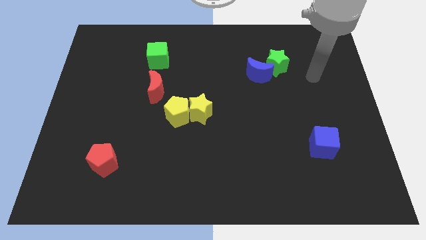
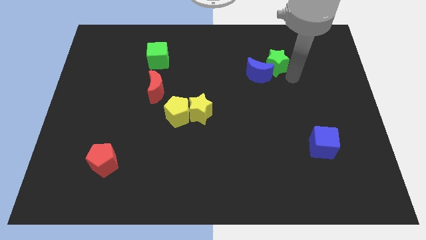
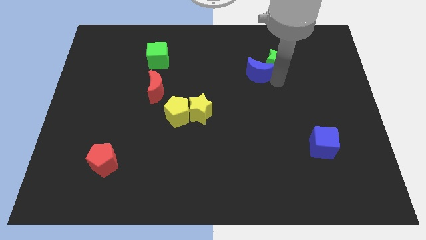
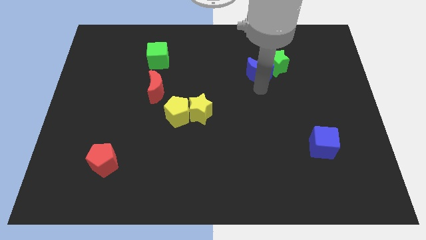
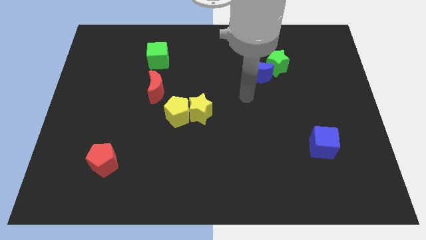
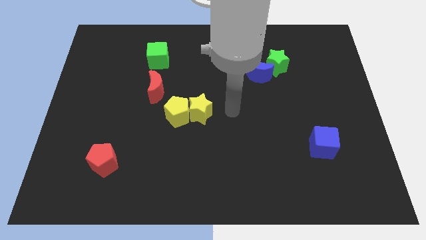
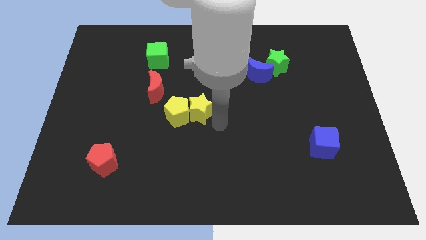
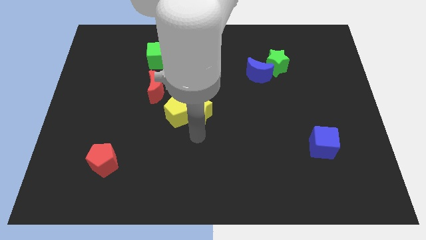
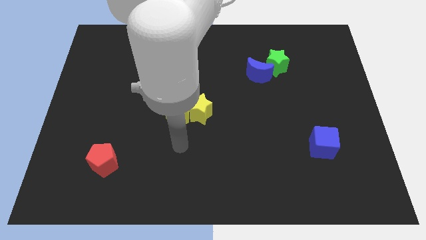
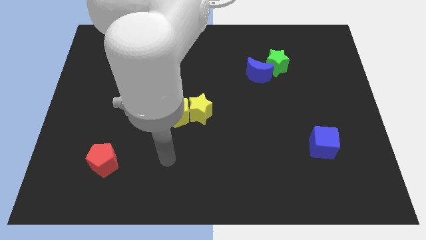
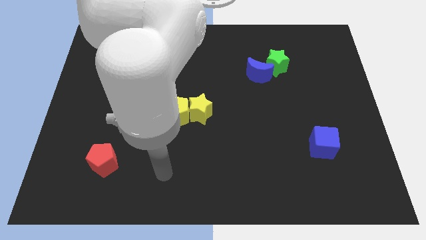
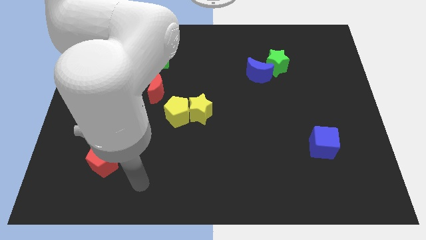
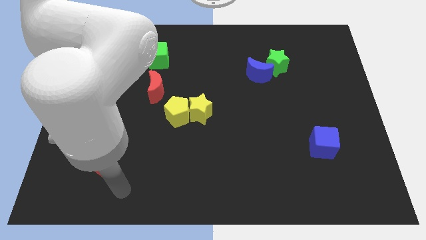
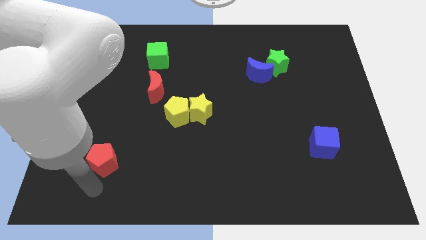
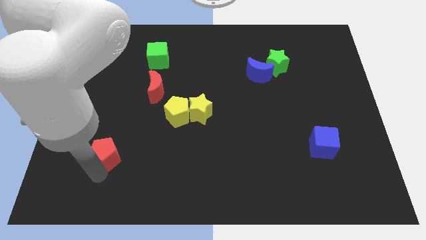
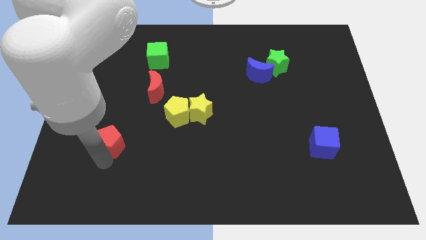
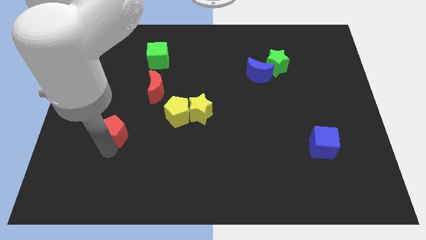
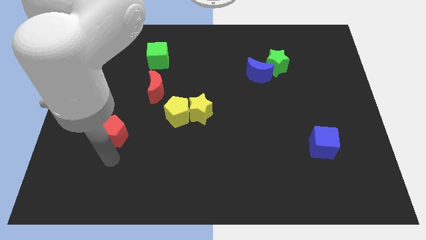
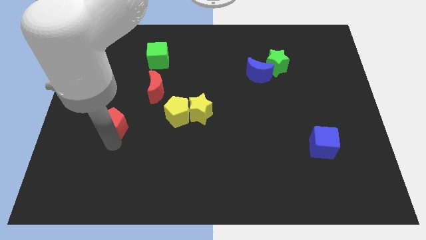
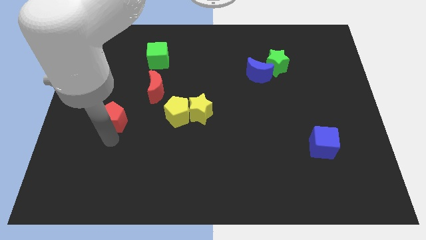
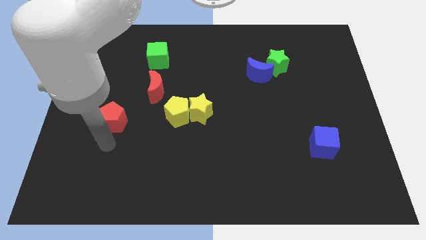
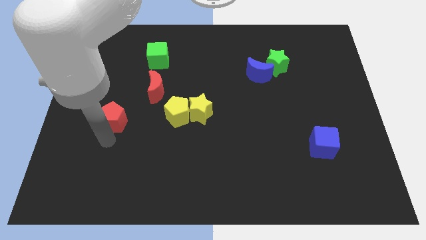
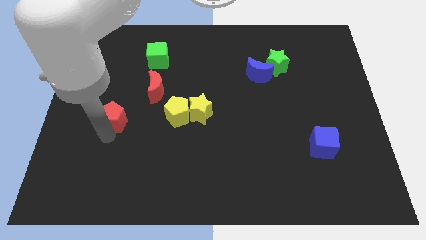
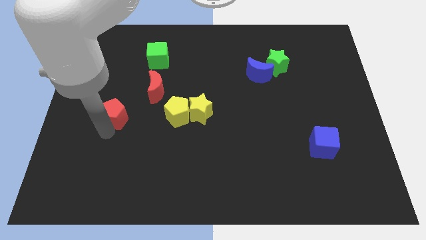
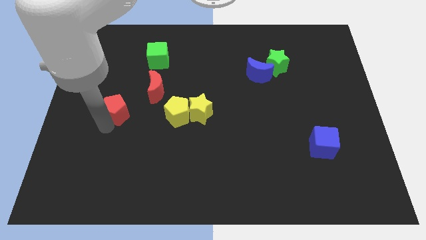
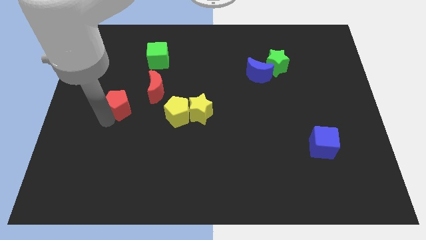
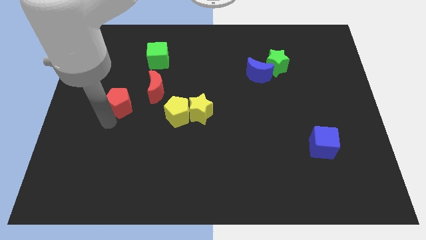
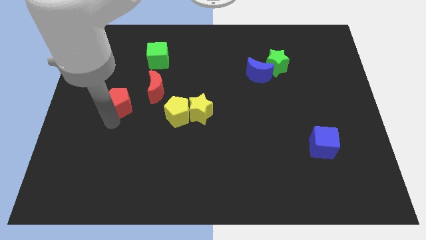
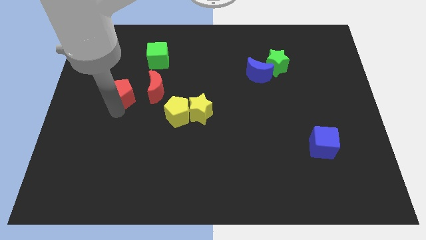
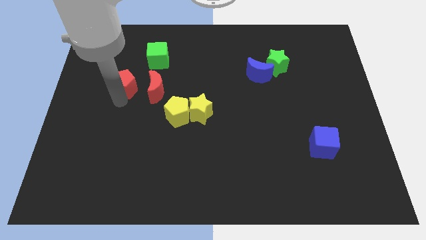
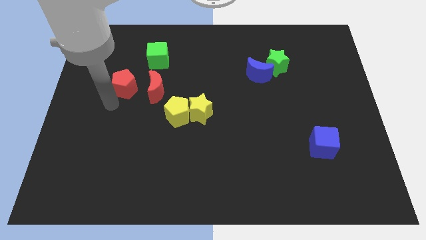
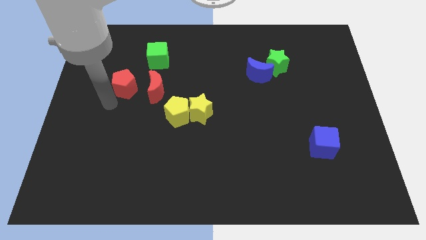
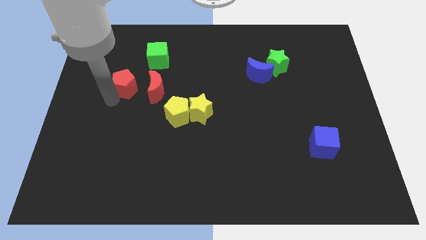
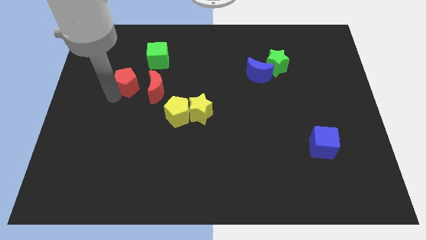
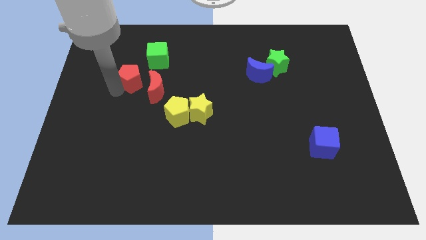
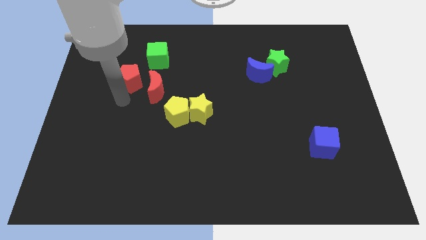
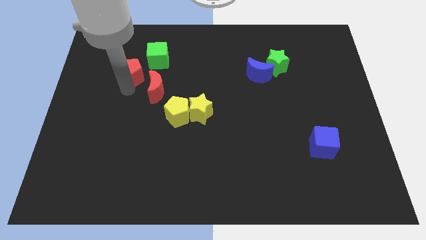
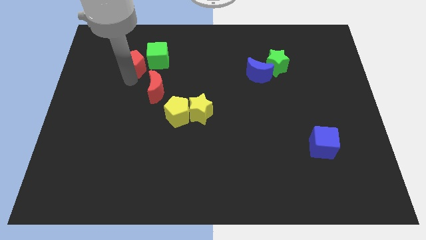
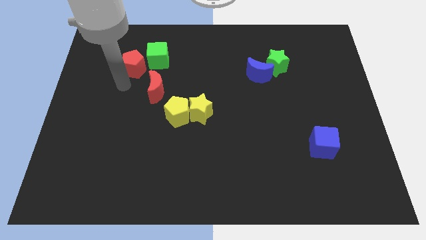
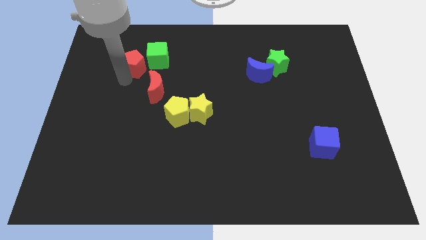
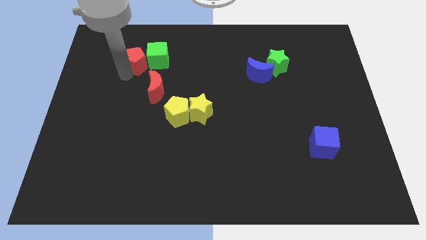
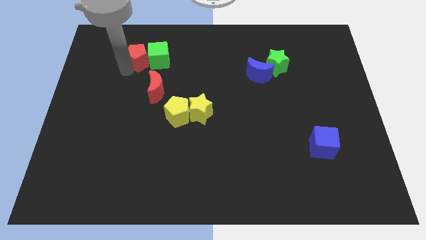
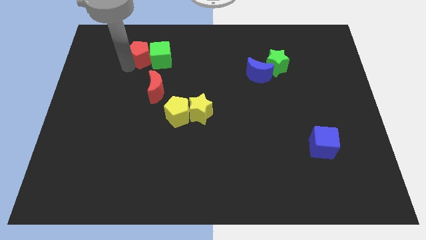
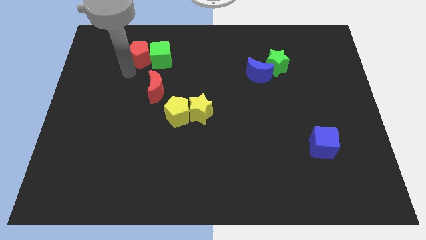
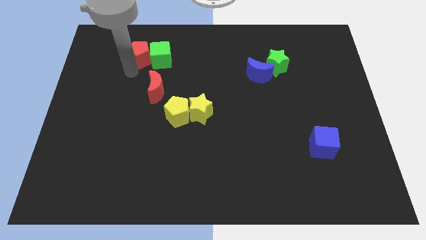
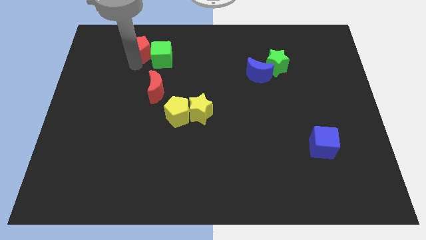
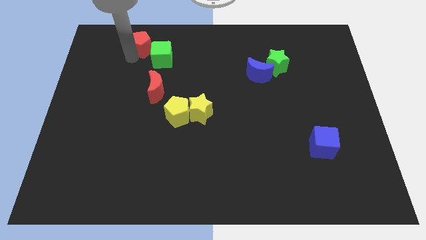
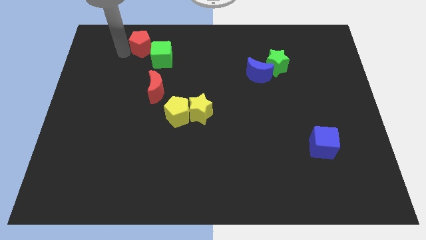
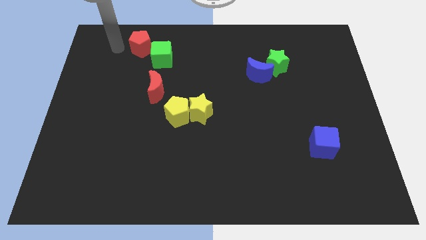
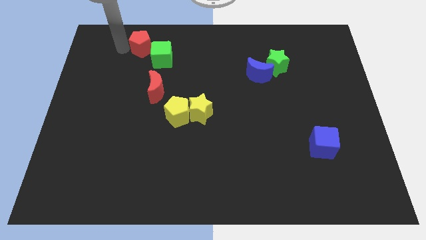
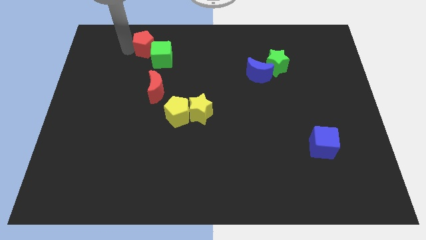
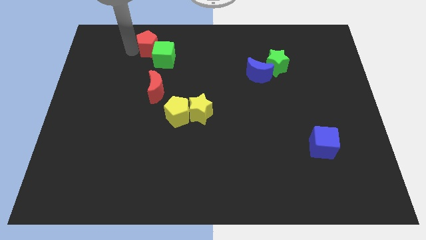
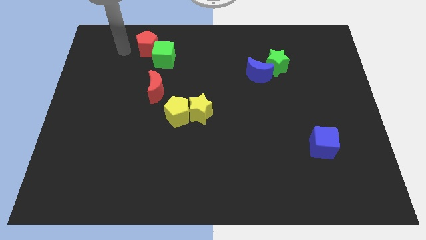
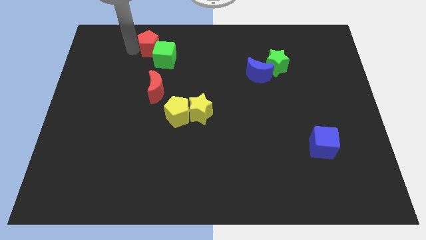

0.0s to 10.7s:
slide the red pentagon above the red moon
